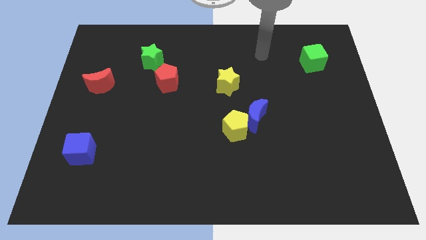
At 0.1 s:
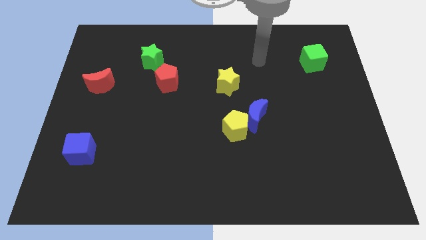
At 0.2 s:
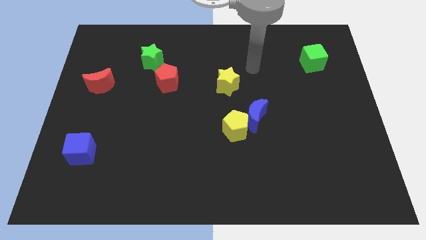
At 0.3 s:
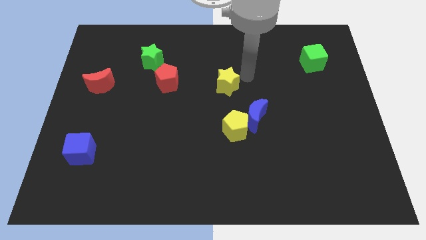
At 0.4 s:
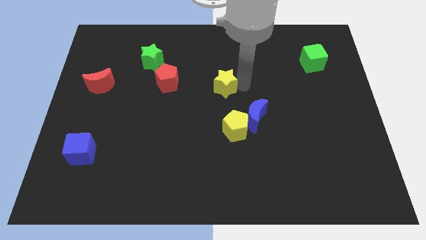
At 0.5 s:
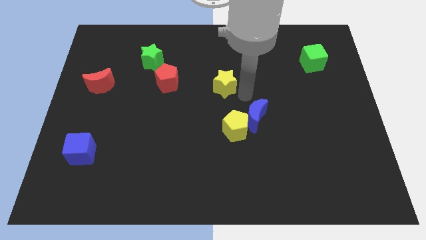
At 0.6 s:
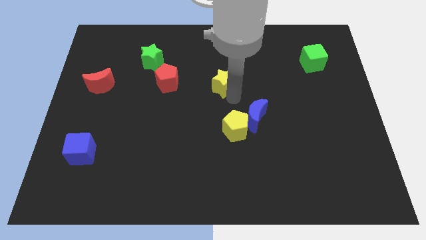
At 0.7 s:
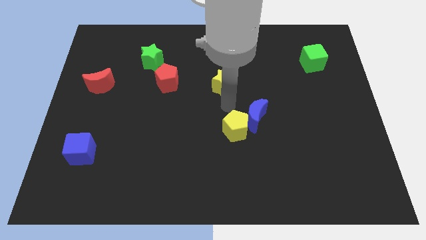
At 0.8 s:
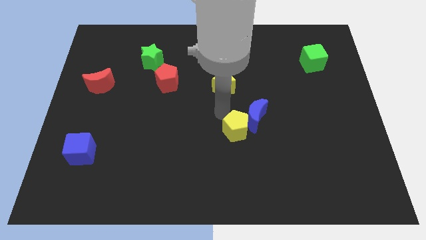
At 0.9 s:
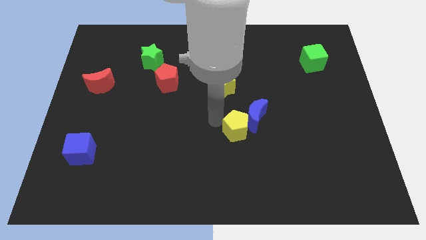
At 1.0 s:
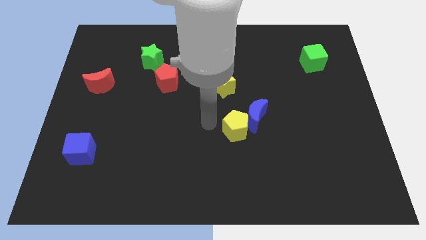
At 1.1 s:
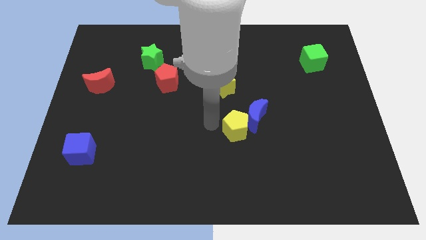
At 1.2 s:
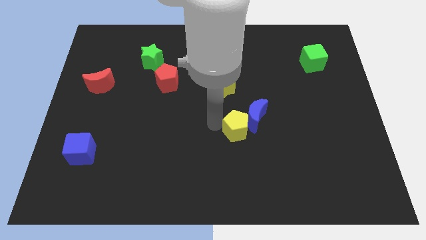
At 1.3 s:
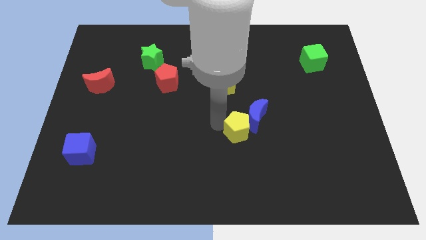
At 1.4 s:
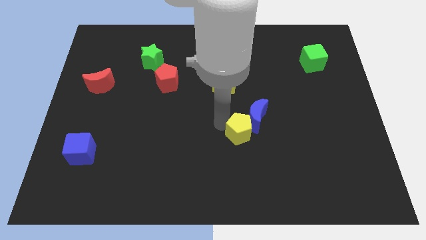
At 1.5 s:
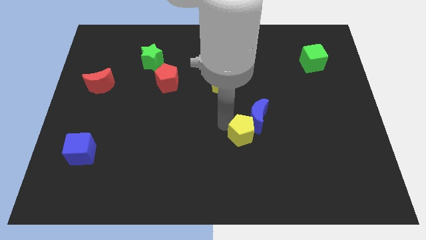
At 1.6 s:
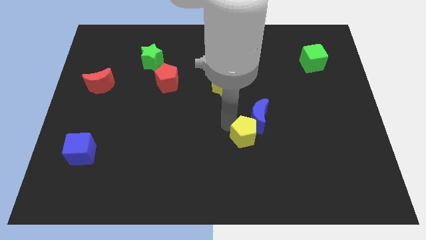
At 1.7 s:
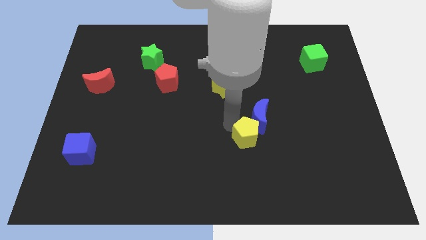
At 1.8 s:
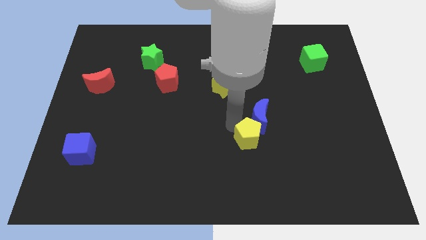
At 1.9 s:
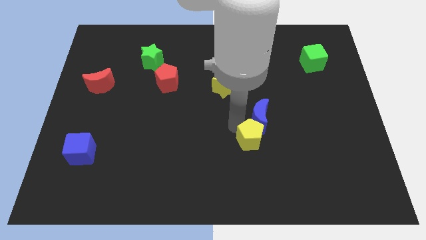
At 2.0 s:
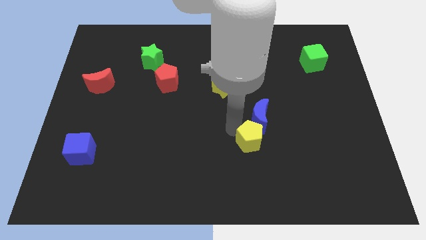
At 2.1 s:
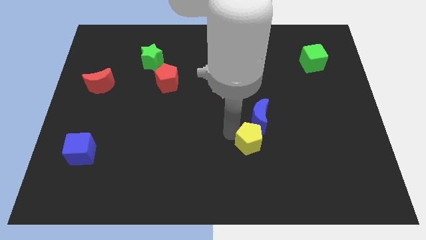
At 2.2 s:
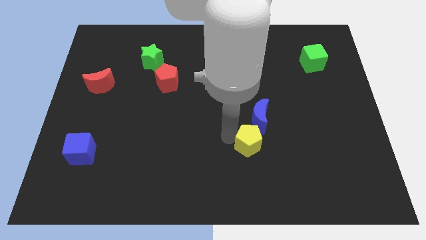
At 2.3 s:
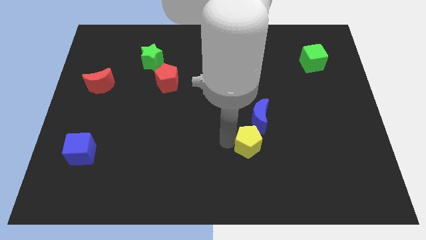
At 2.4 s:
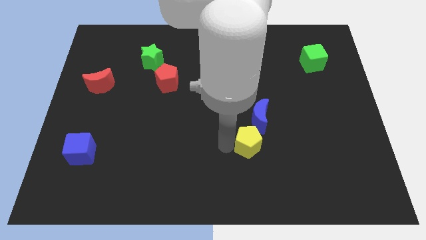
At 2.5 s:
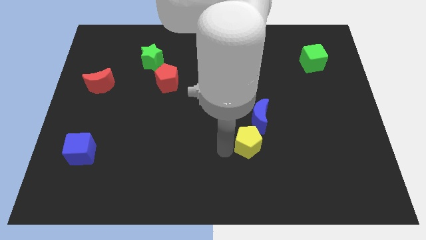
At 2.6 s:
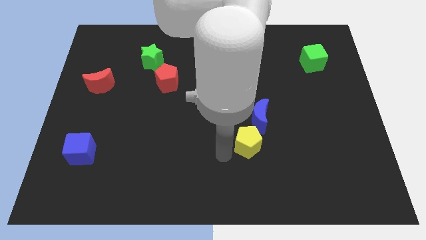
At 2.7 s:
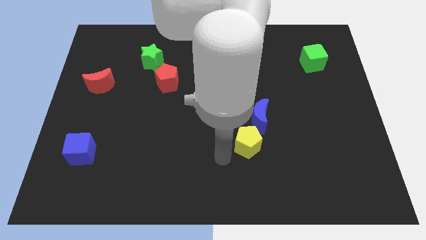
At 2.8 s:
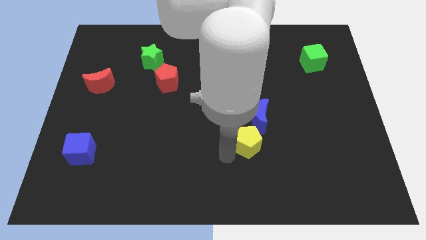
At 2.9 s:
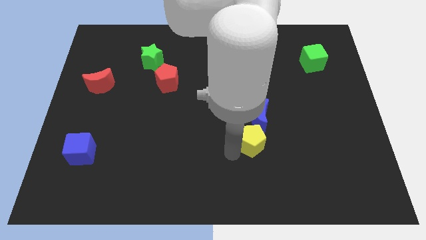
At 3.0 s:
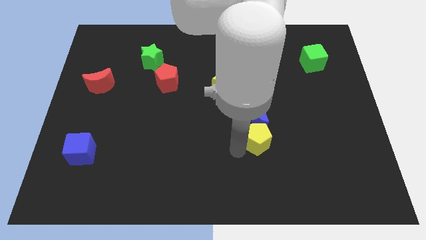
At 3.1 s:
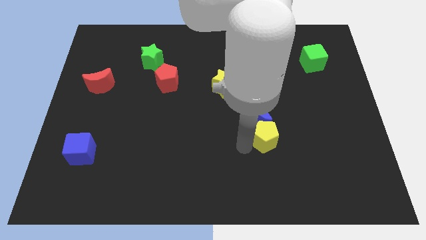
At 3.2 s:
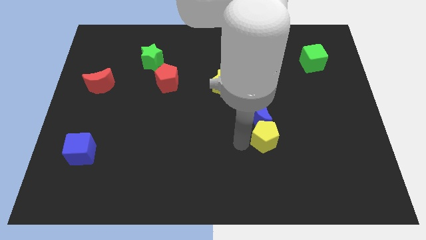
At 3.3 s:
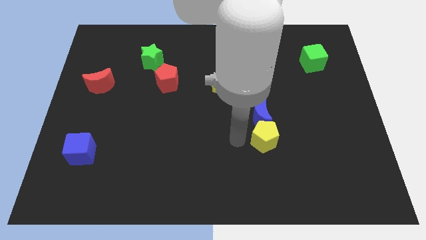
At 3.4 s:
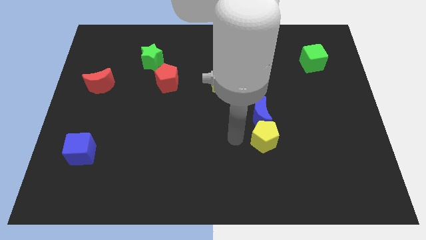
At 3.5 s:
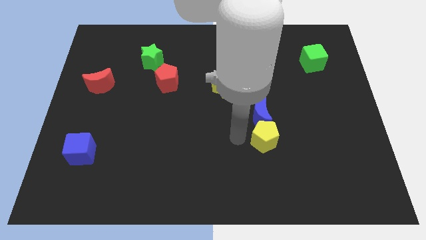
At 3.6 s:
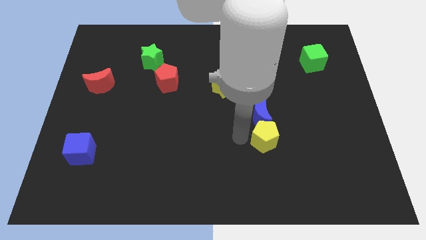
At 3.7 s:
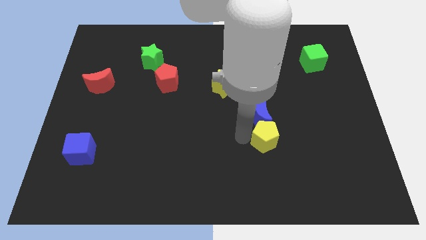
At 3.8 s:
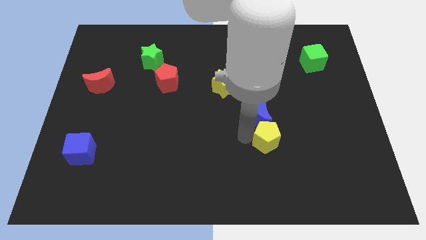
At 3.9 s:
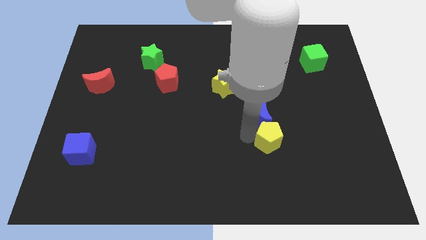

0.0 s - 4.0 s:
slide the yellow pentagon slightly to the right

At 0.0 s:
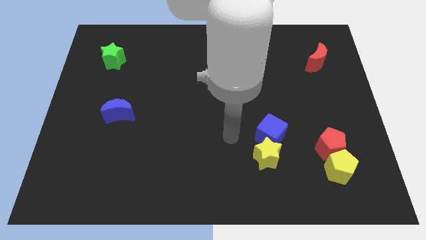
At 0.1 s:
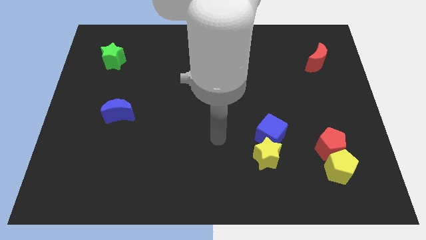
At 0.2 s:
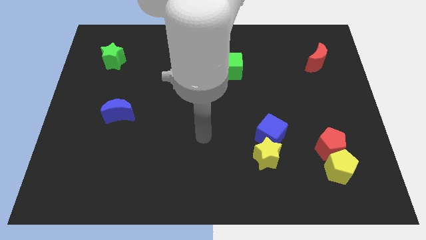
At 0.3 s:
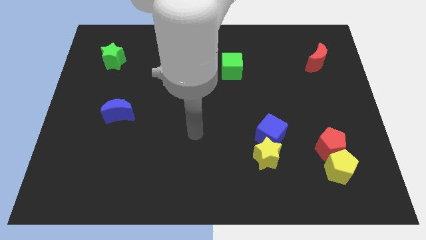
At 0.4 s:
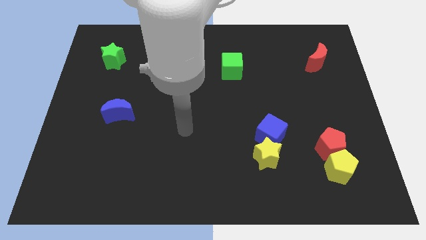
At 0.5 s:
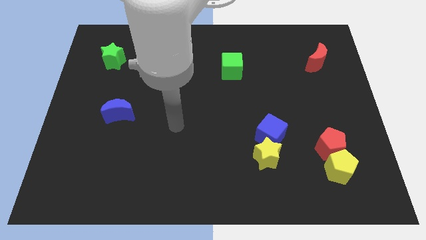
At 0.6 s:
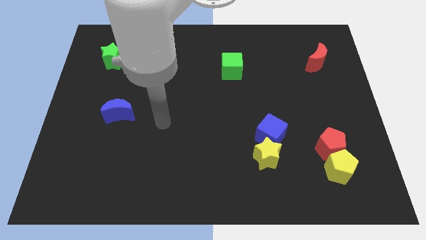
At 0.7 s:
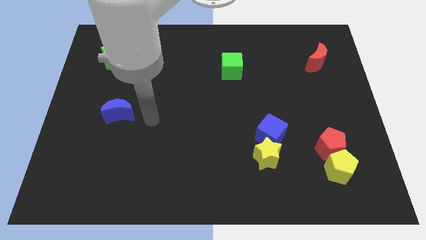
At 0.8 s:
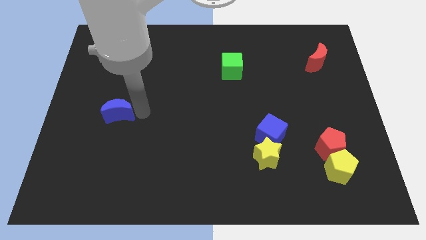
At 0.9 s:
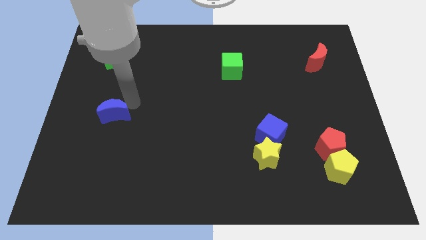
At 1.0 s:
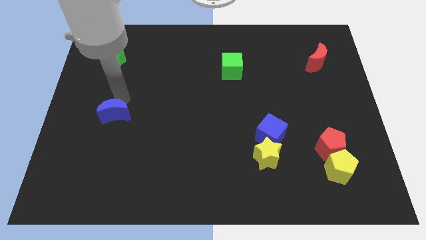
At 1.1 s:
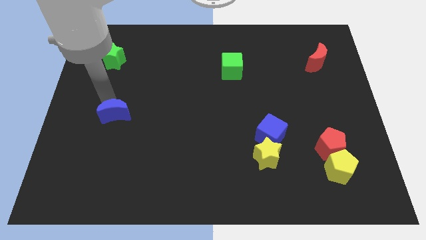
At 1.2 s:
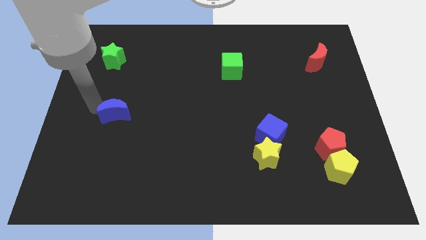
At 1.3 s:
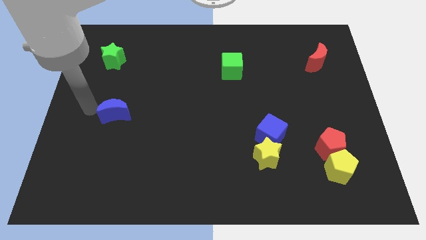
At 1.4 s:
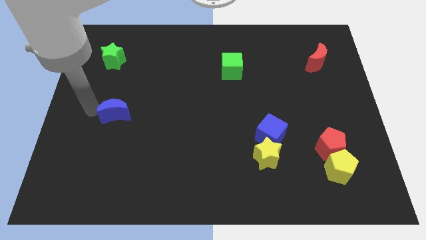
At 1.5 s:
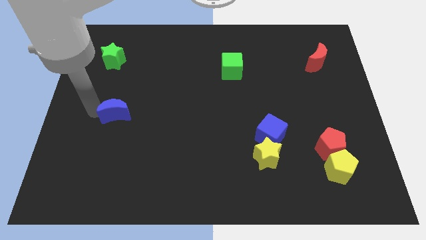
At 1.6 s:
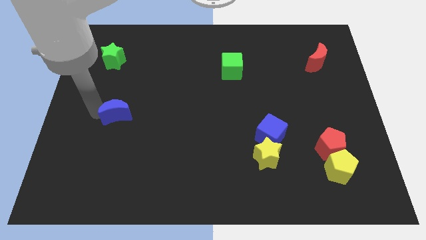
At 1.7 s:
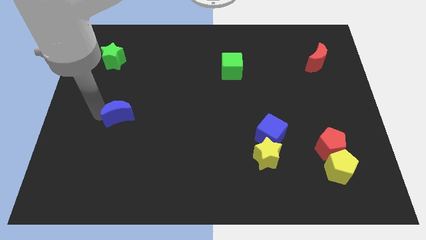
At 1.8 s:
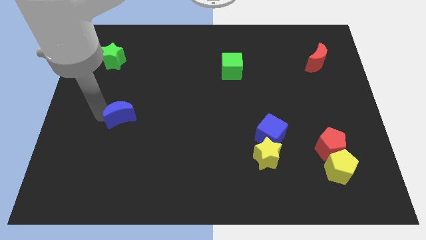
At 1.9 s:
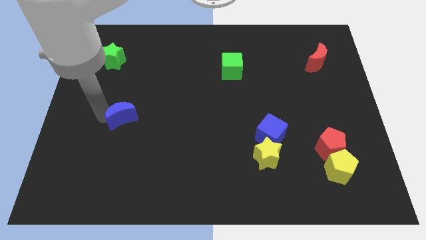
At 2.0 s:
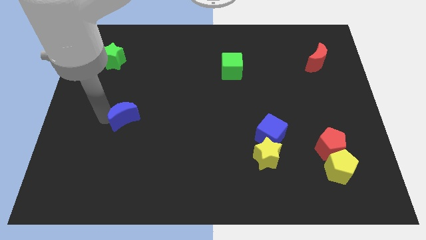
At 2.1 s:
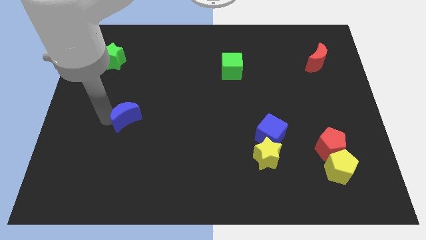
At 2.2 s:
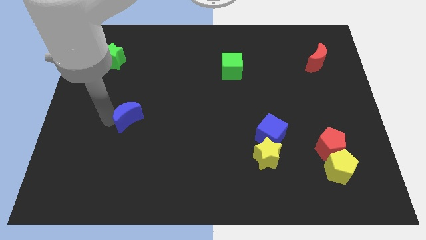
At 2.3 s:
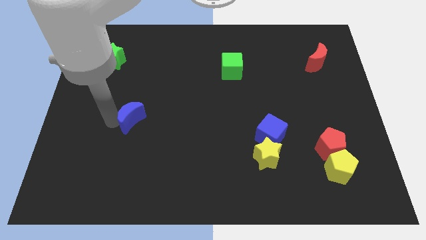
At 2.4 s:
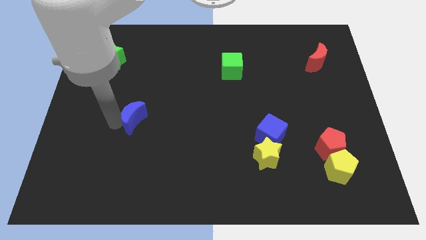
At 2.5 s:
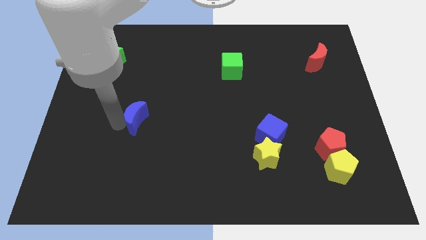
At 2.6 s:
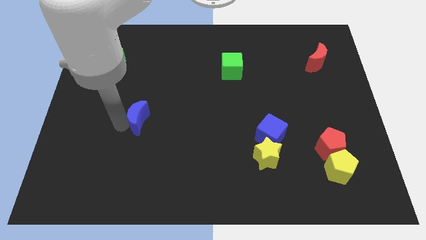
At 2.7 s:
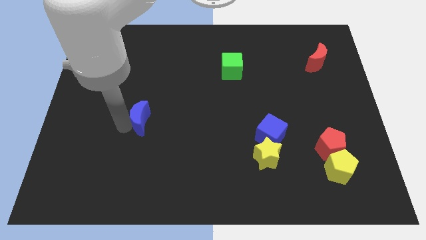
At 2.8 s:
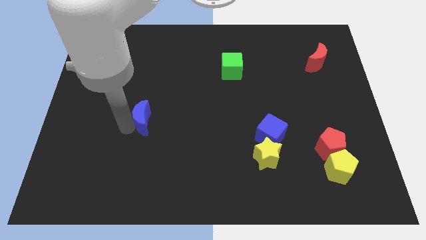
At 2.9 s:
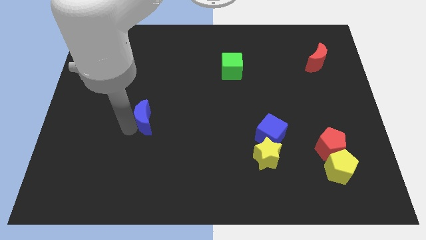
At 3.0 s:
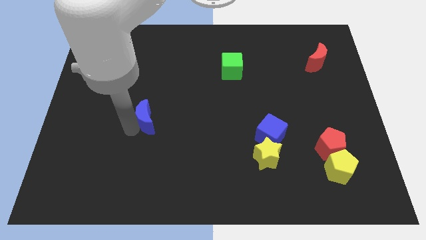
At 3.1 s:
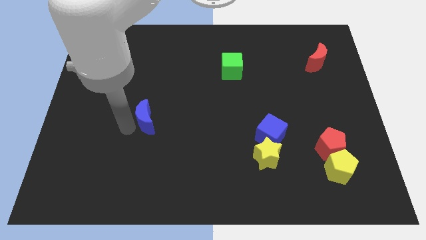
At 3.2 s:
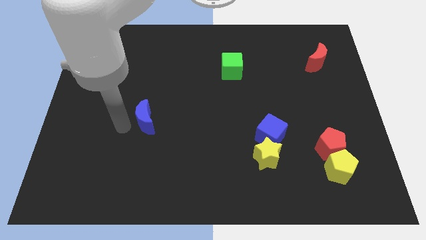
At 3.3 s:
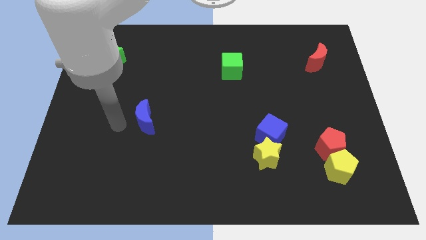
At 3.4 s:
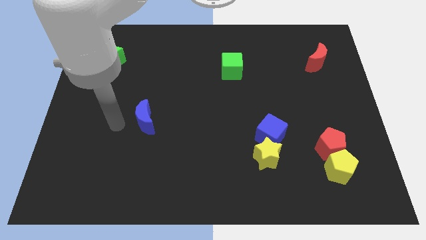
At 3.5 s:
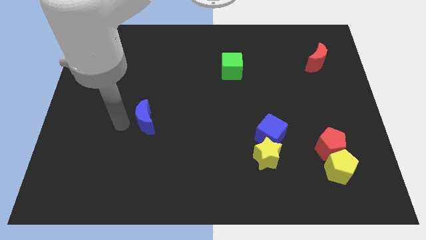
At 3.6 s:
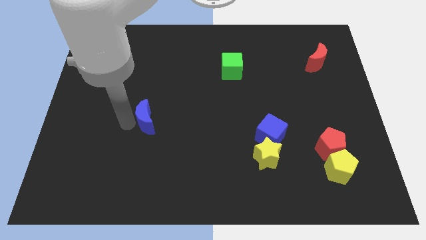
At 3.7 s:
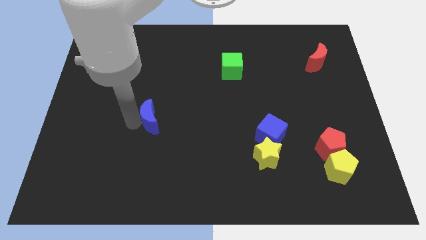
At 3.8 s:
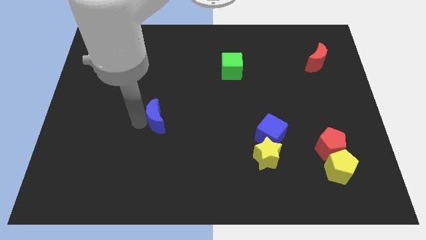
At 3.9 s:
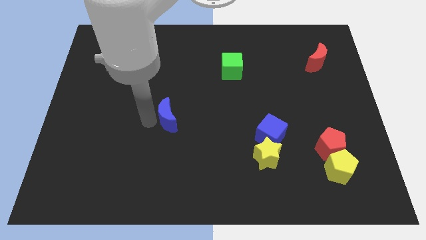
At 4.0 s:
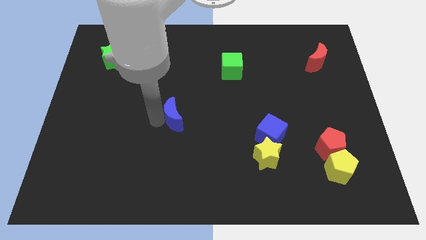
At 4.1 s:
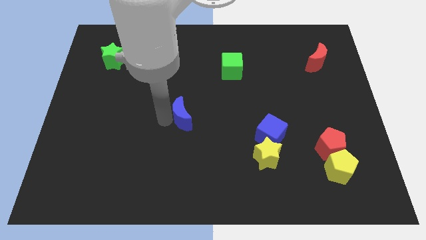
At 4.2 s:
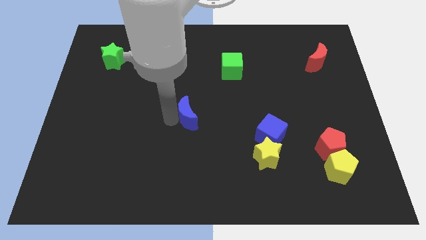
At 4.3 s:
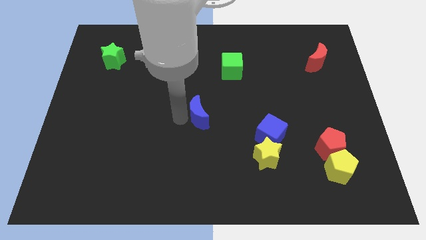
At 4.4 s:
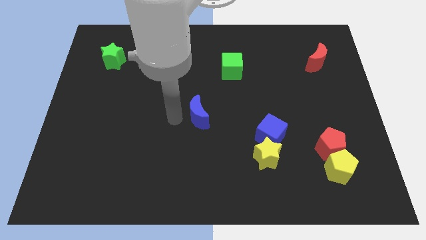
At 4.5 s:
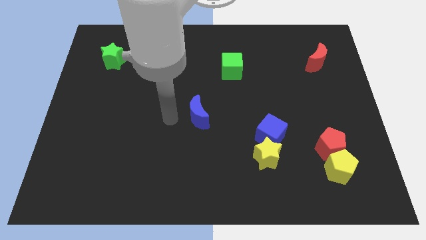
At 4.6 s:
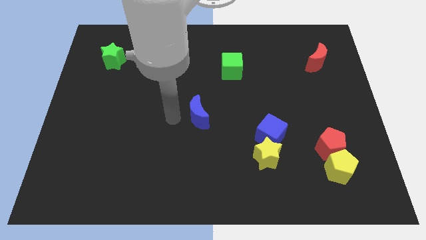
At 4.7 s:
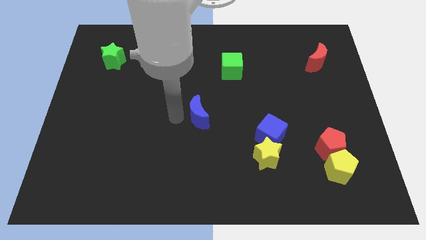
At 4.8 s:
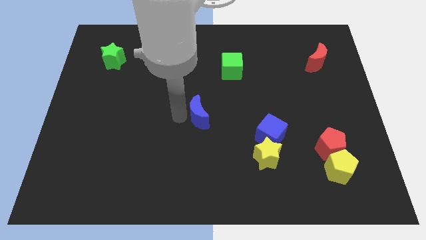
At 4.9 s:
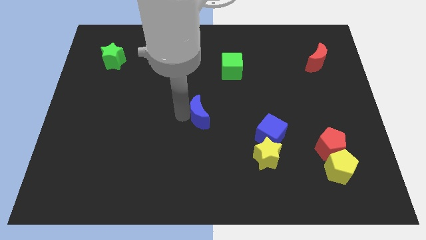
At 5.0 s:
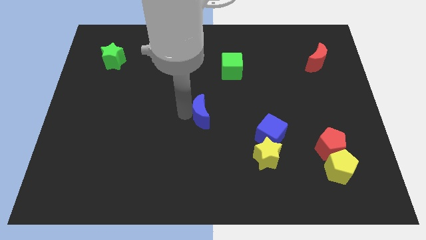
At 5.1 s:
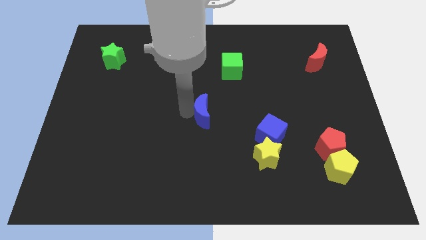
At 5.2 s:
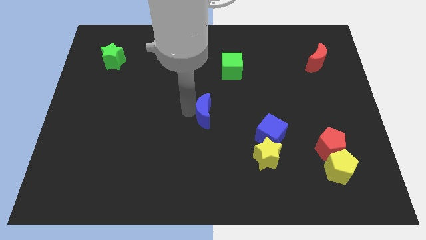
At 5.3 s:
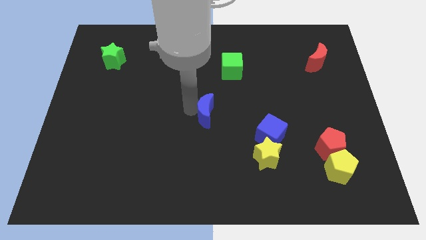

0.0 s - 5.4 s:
slide the blue moon to the right
